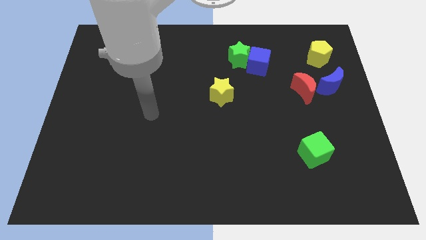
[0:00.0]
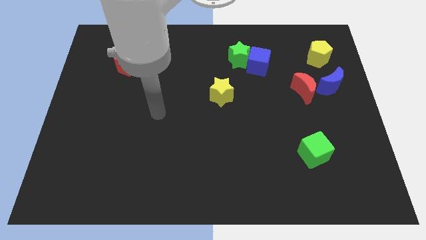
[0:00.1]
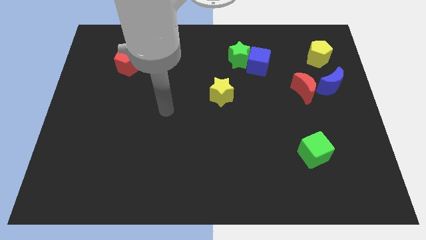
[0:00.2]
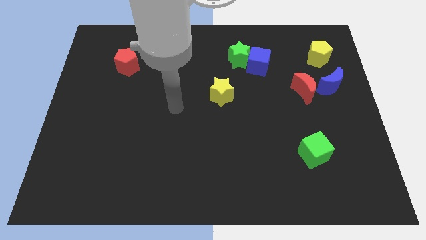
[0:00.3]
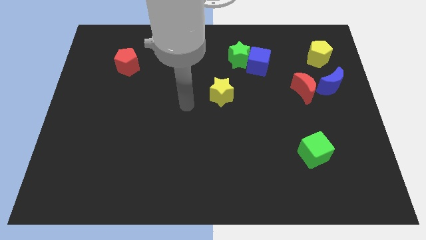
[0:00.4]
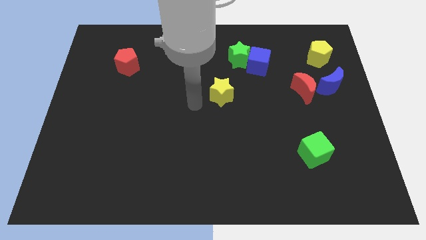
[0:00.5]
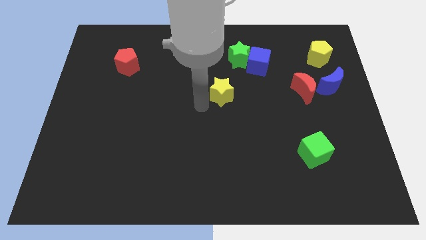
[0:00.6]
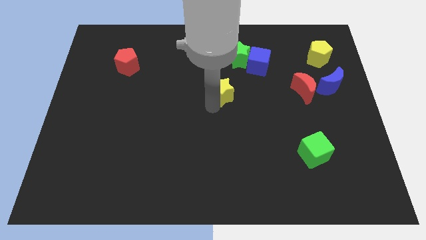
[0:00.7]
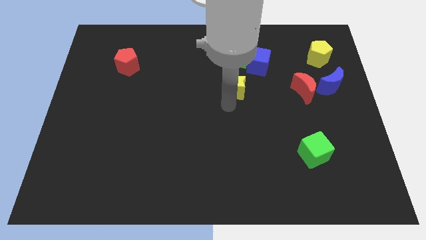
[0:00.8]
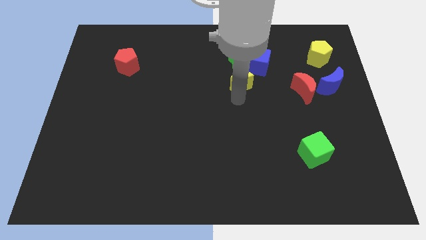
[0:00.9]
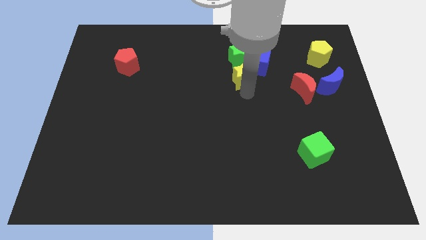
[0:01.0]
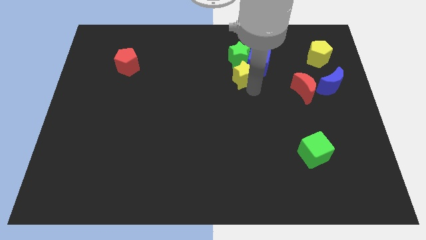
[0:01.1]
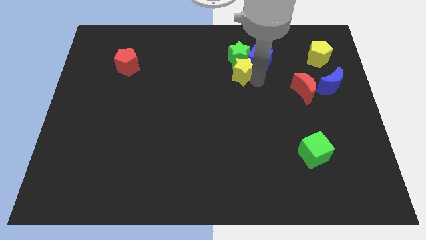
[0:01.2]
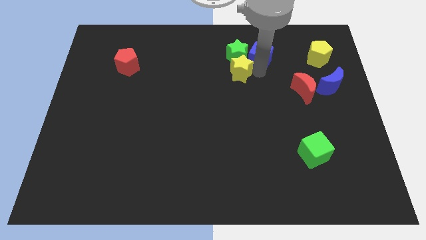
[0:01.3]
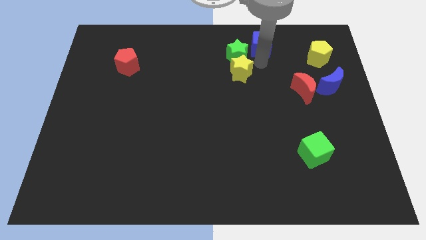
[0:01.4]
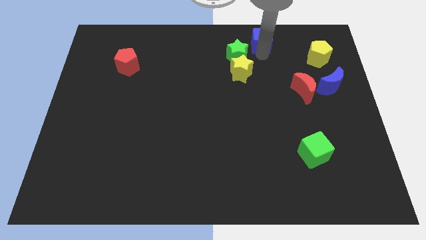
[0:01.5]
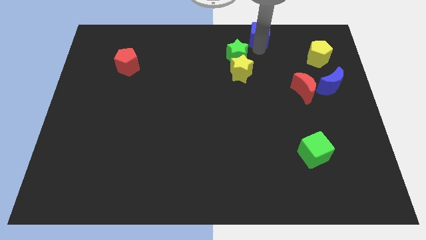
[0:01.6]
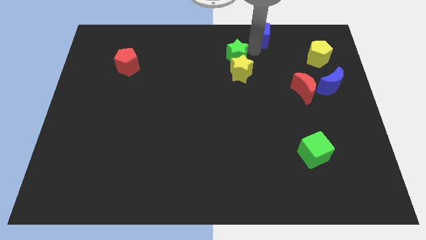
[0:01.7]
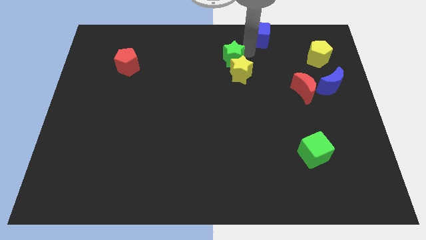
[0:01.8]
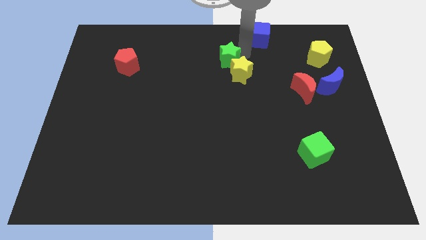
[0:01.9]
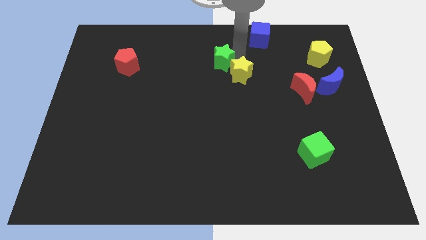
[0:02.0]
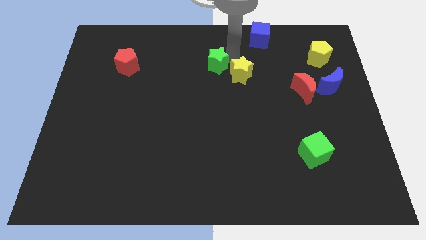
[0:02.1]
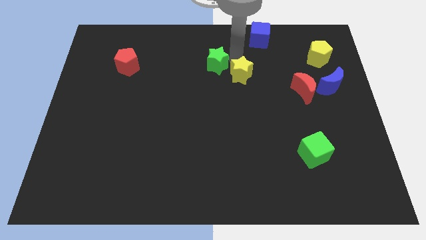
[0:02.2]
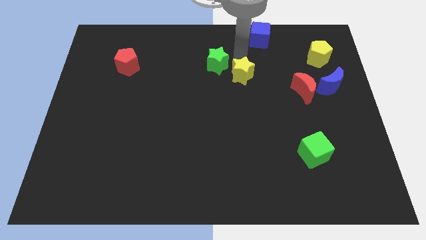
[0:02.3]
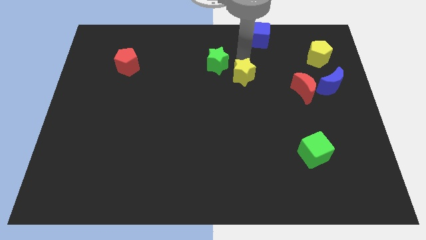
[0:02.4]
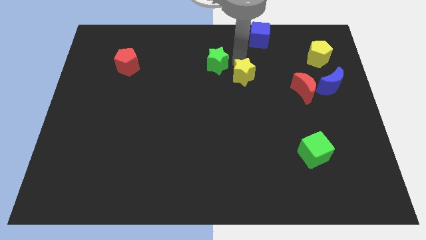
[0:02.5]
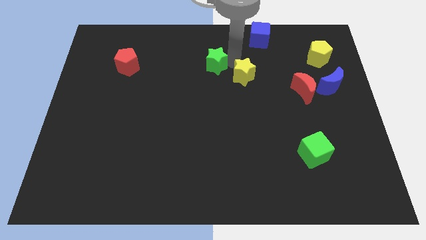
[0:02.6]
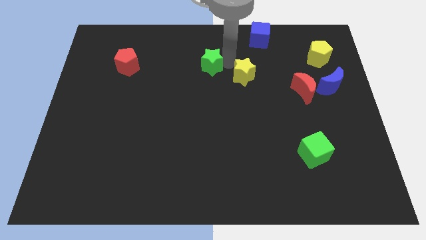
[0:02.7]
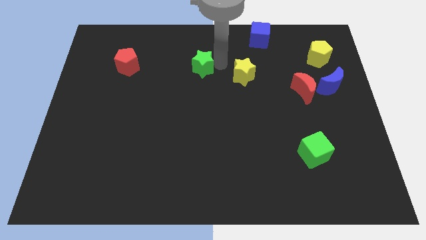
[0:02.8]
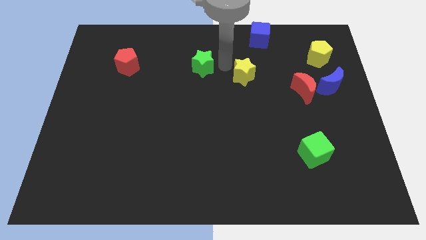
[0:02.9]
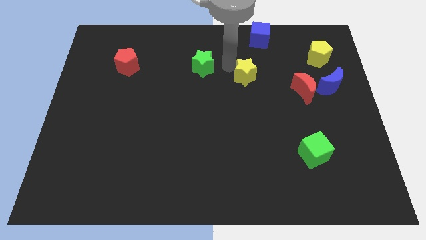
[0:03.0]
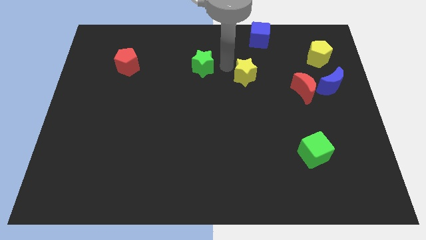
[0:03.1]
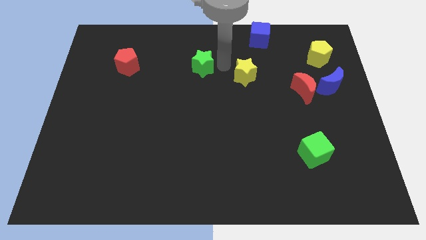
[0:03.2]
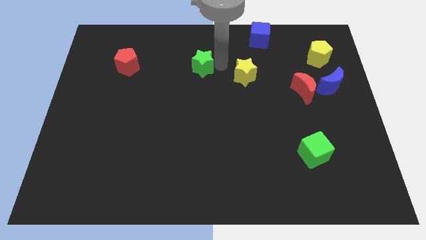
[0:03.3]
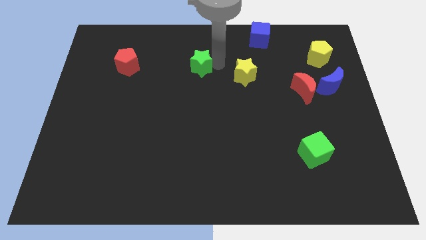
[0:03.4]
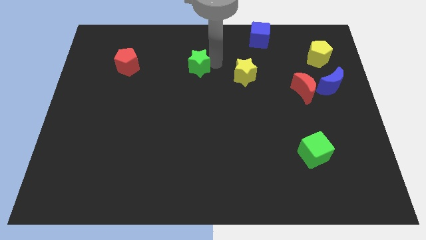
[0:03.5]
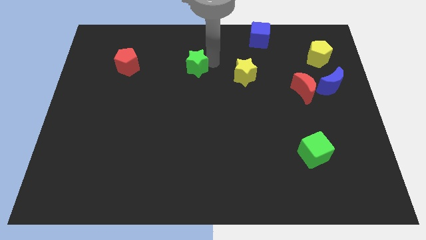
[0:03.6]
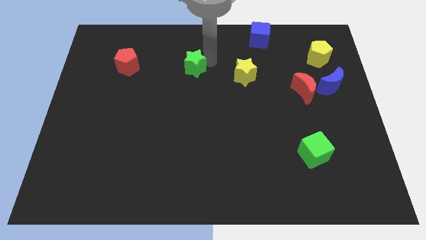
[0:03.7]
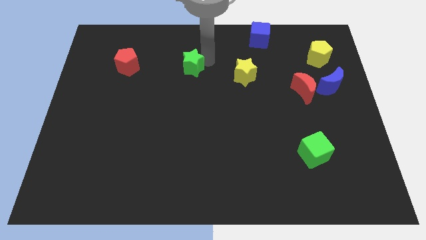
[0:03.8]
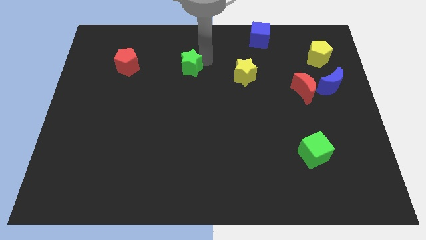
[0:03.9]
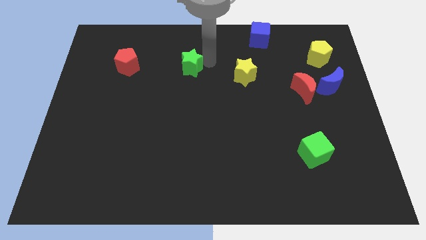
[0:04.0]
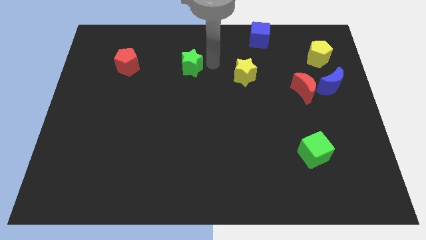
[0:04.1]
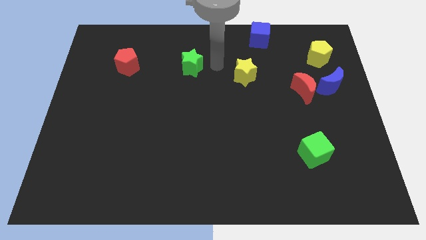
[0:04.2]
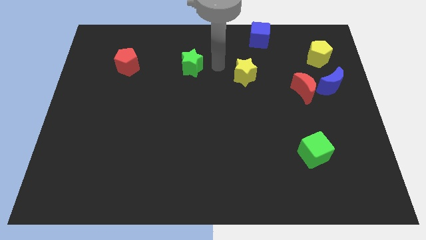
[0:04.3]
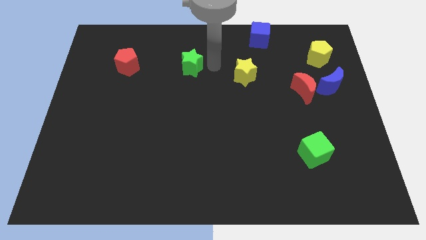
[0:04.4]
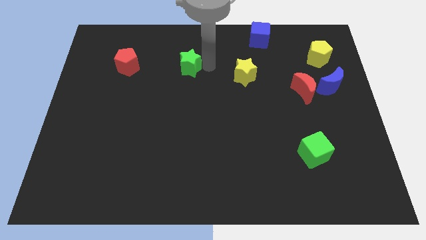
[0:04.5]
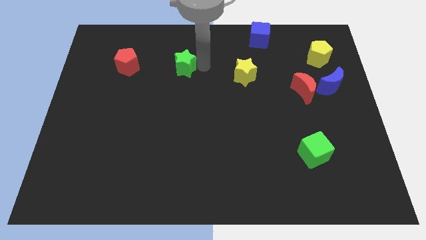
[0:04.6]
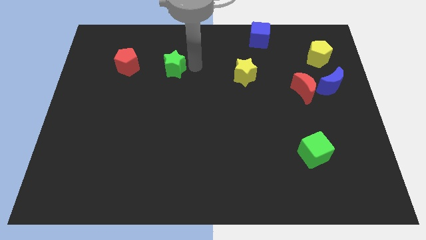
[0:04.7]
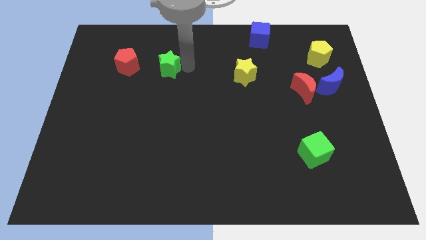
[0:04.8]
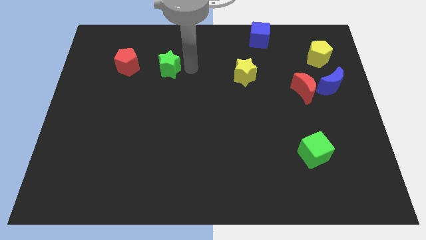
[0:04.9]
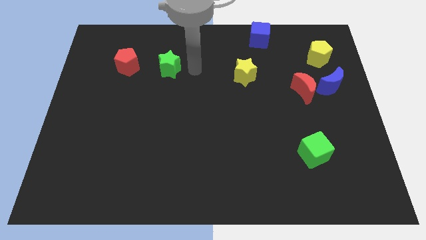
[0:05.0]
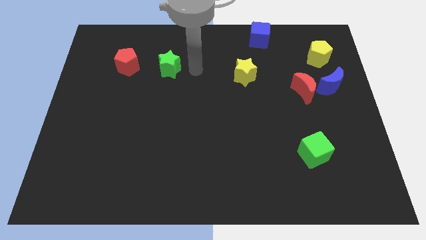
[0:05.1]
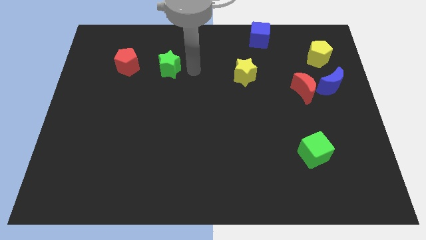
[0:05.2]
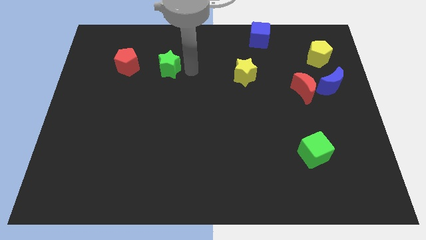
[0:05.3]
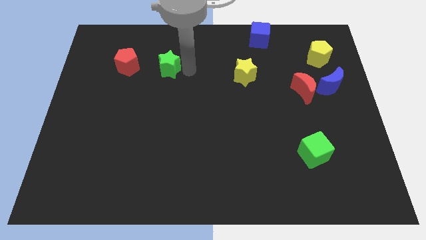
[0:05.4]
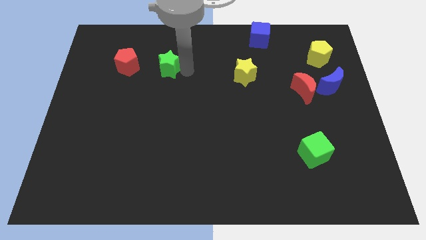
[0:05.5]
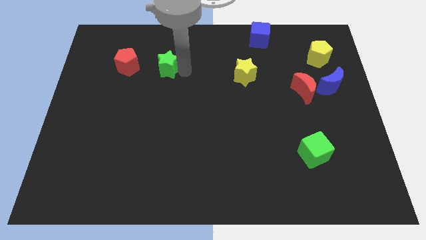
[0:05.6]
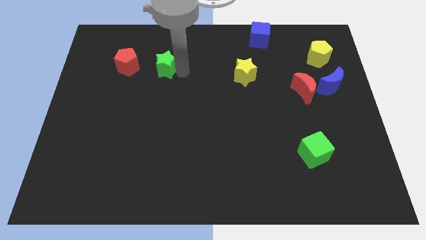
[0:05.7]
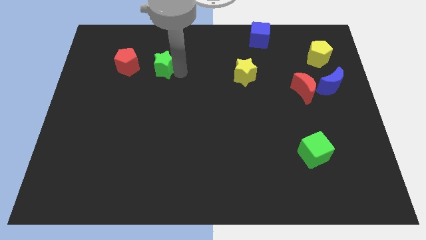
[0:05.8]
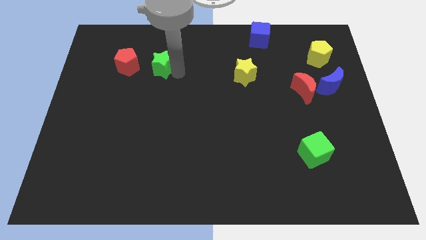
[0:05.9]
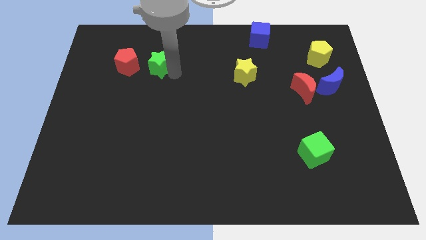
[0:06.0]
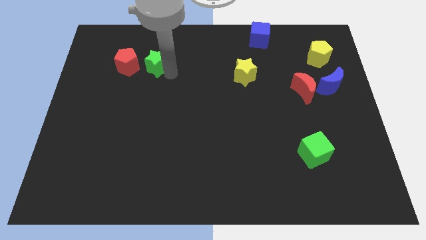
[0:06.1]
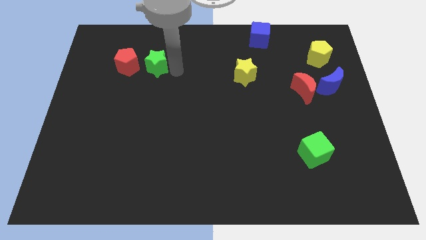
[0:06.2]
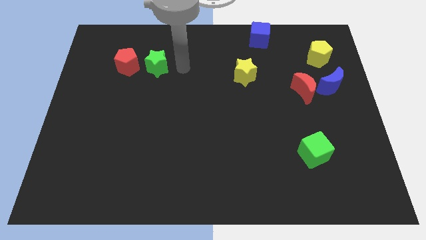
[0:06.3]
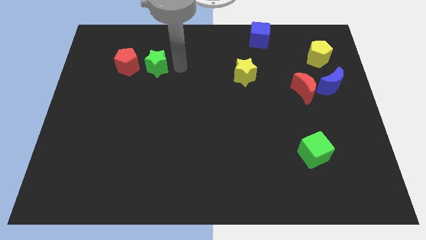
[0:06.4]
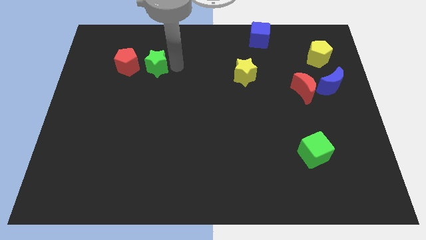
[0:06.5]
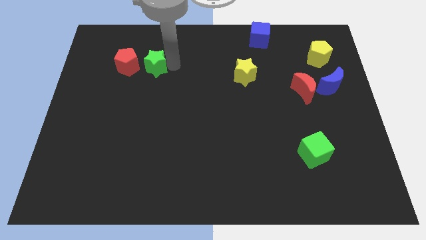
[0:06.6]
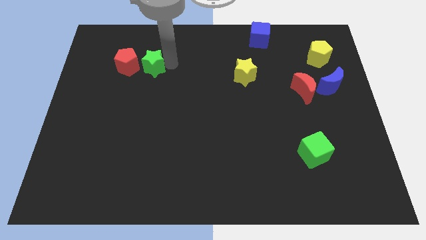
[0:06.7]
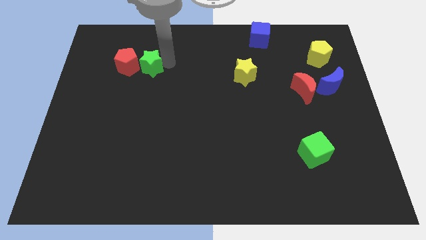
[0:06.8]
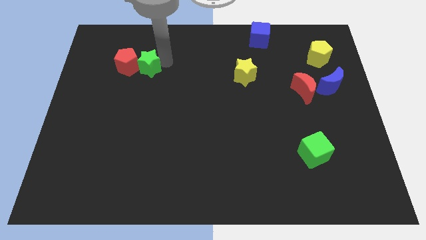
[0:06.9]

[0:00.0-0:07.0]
push the green star to the red pentagon

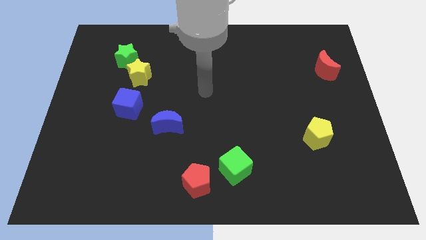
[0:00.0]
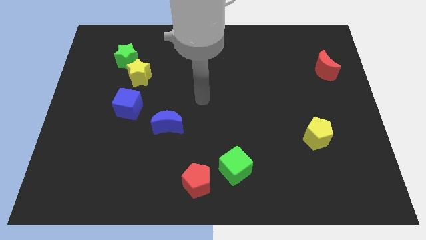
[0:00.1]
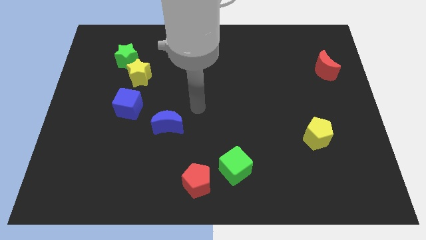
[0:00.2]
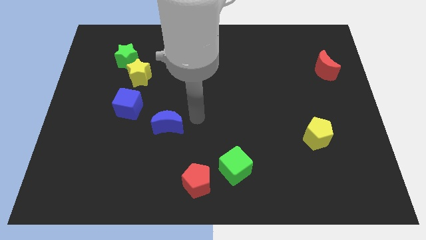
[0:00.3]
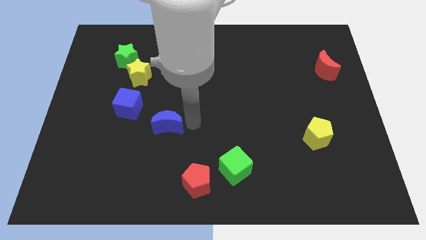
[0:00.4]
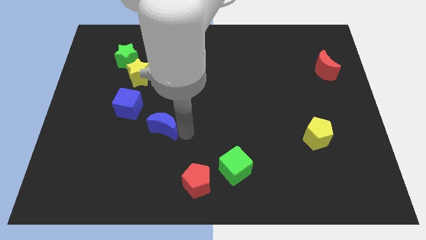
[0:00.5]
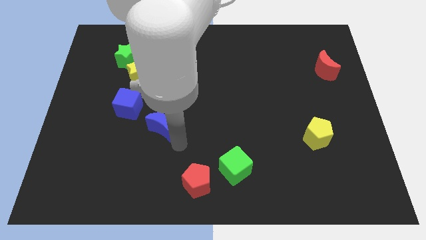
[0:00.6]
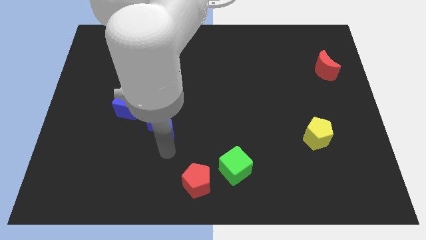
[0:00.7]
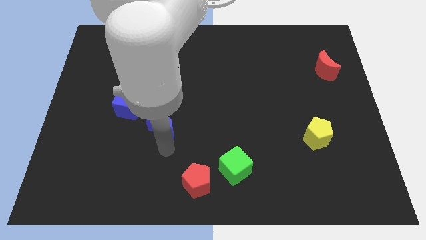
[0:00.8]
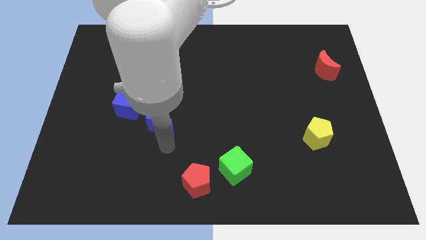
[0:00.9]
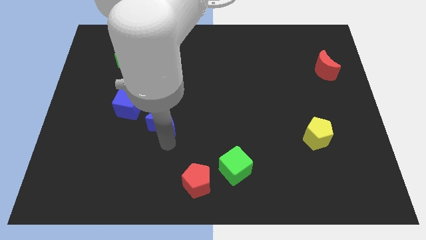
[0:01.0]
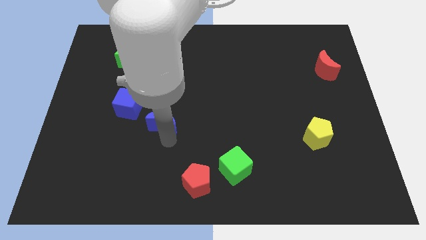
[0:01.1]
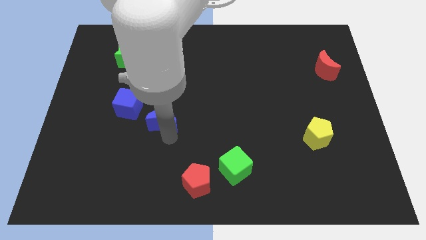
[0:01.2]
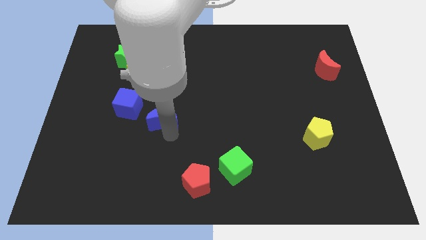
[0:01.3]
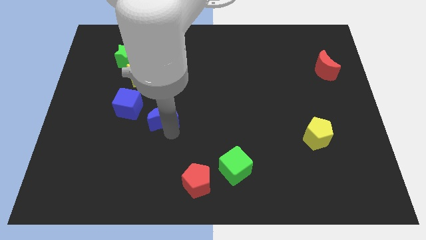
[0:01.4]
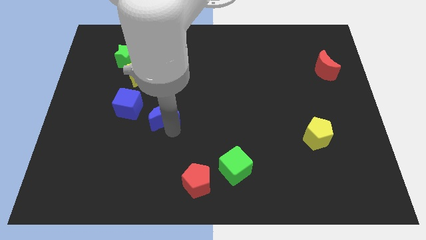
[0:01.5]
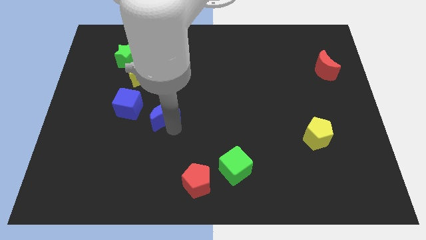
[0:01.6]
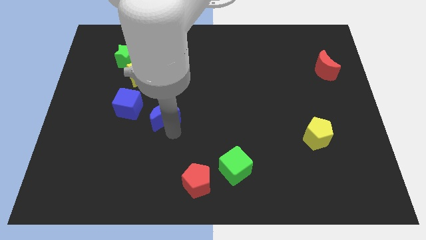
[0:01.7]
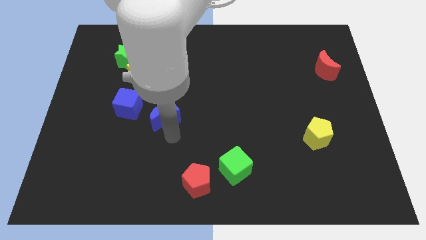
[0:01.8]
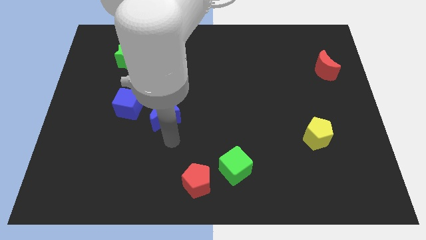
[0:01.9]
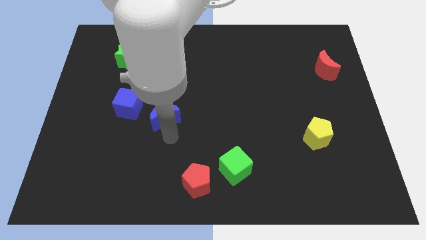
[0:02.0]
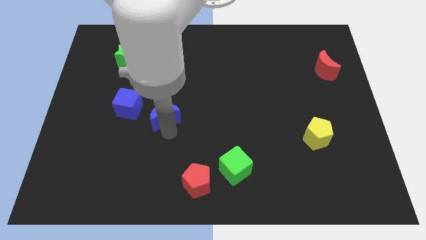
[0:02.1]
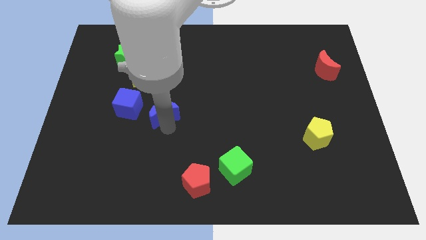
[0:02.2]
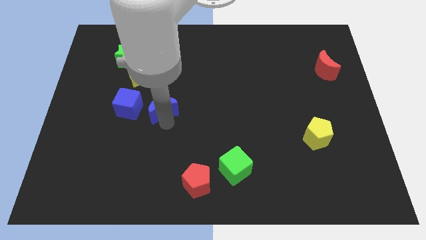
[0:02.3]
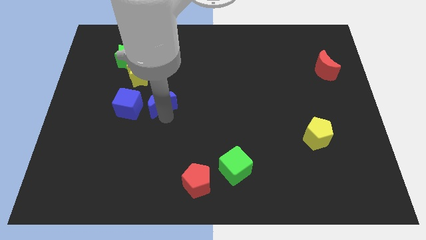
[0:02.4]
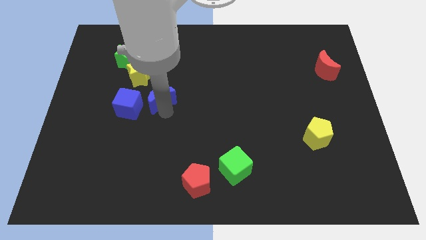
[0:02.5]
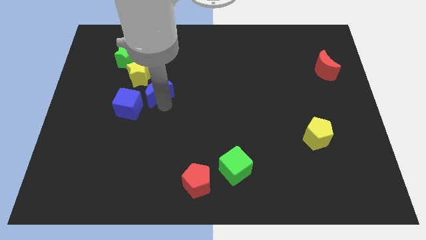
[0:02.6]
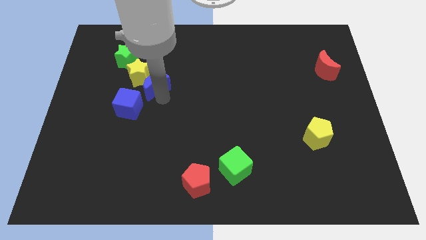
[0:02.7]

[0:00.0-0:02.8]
push the blue moon next to the yellow star
